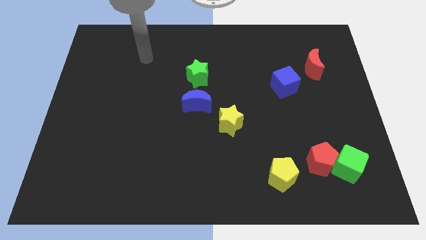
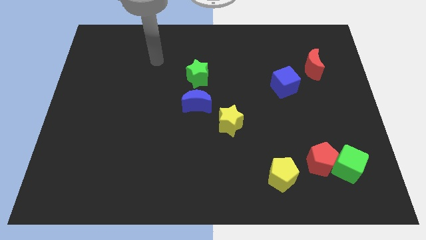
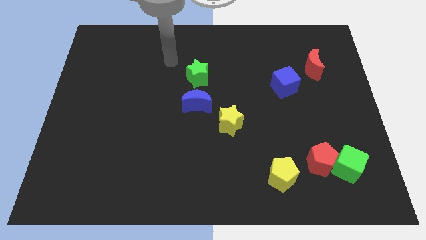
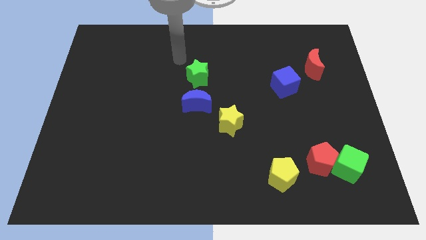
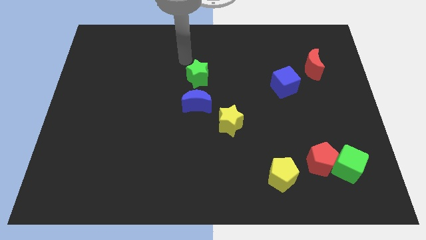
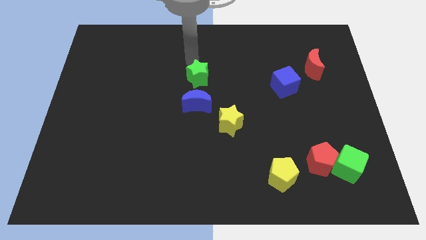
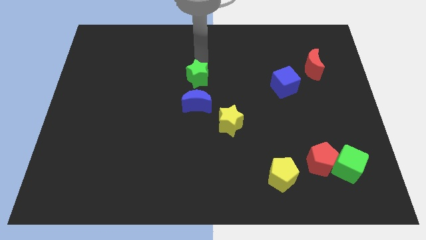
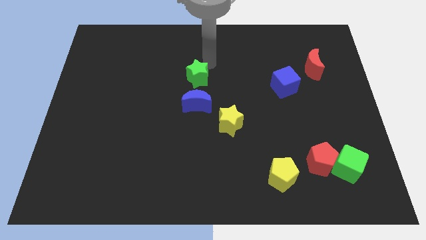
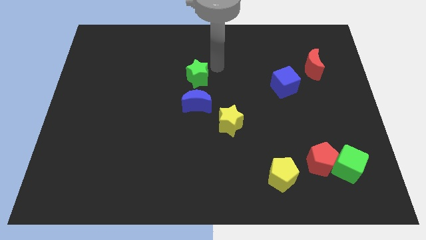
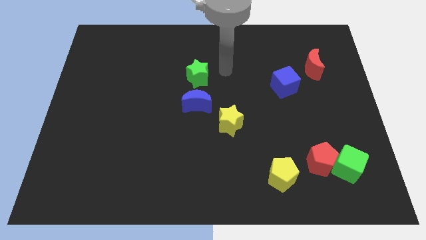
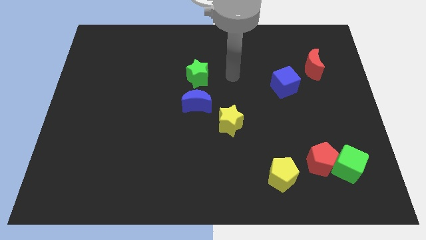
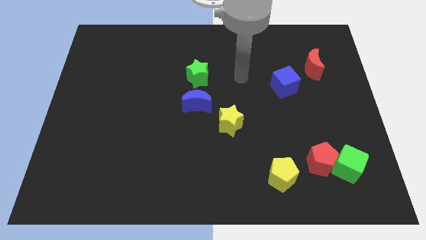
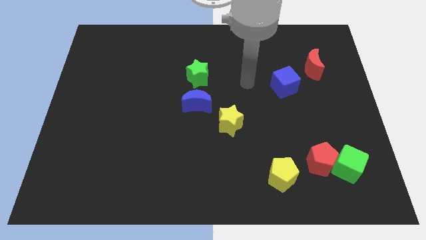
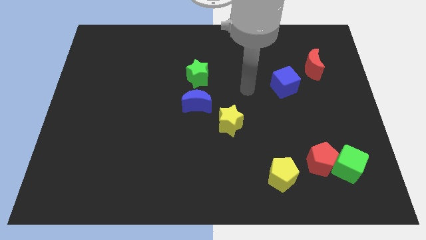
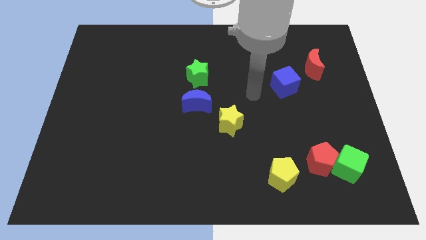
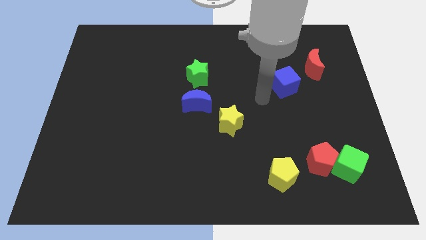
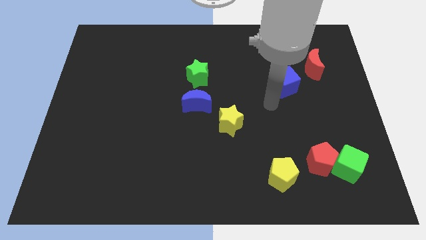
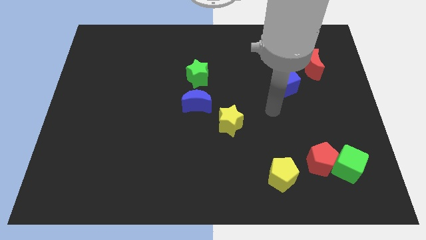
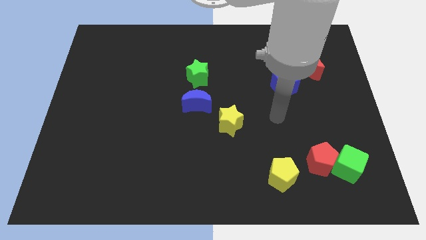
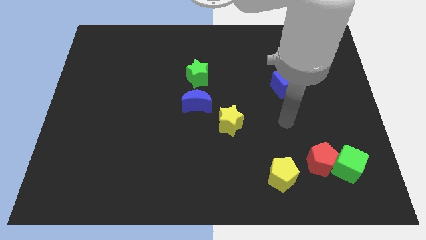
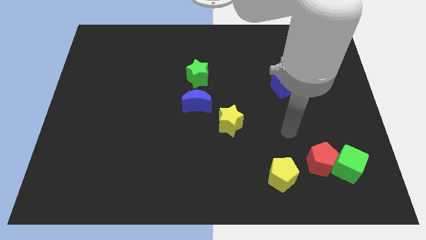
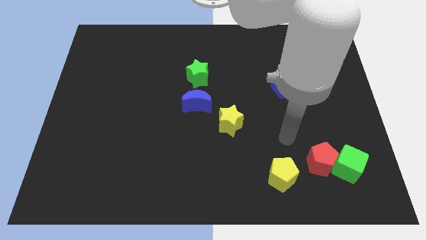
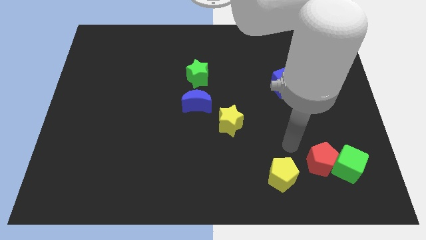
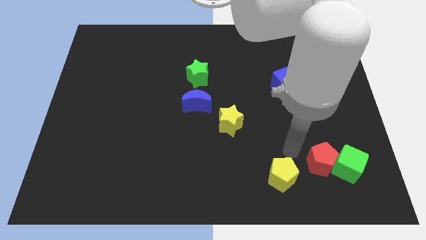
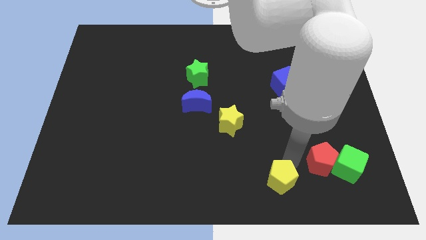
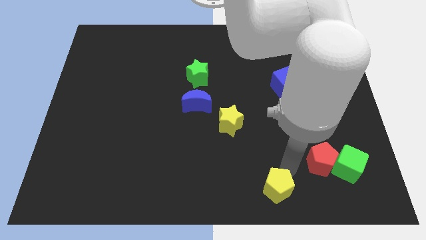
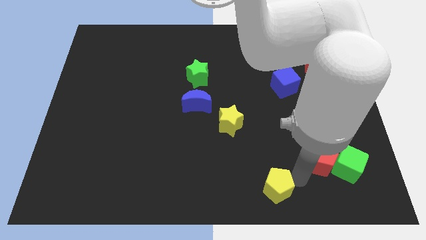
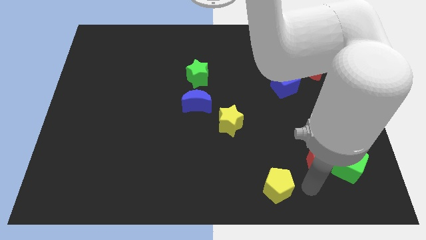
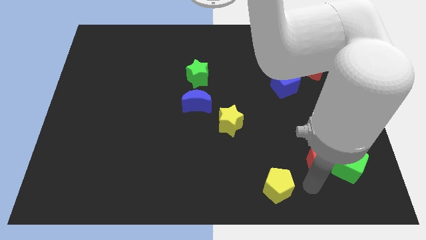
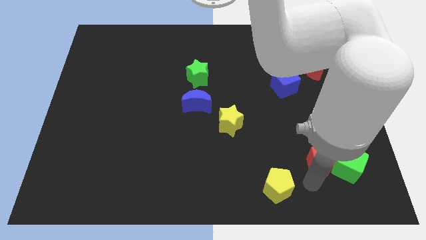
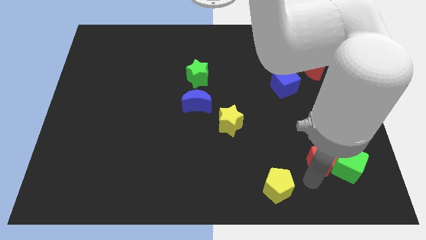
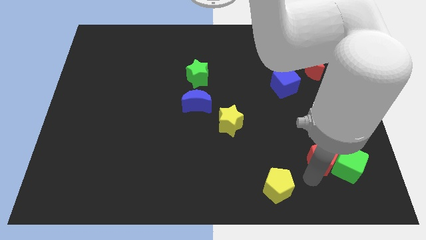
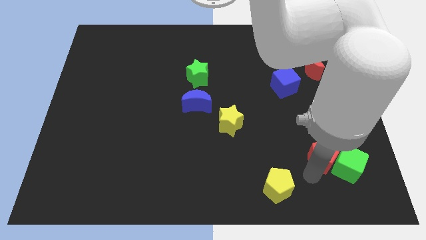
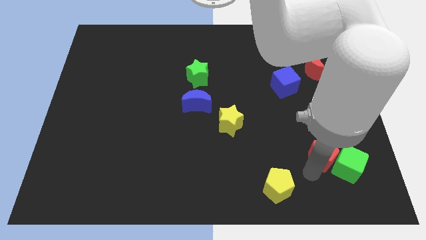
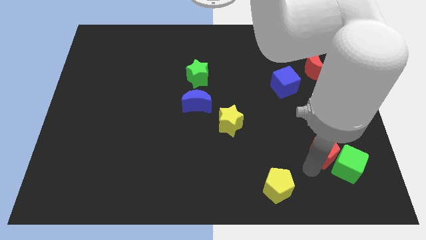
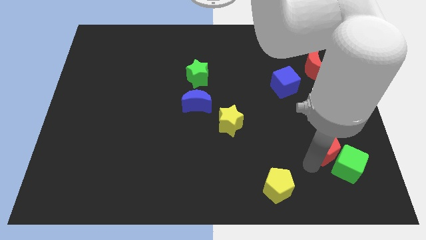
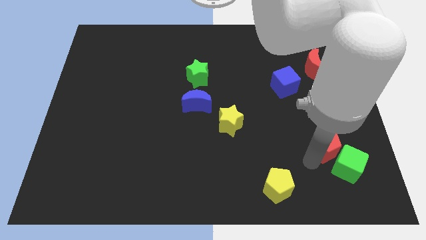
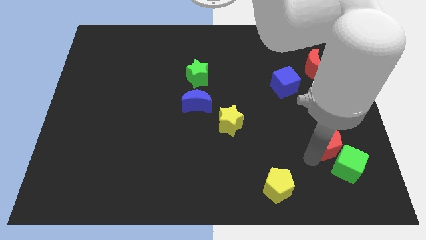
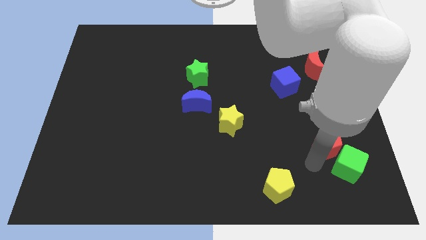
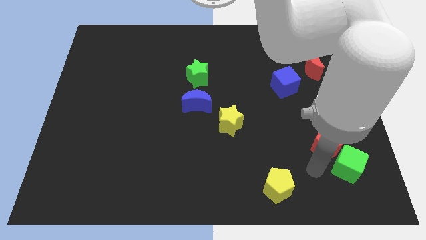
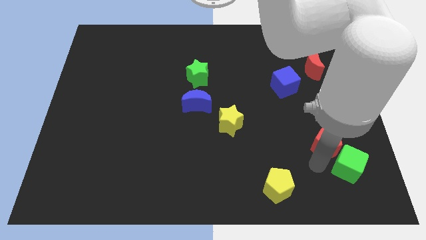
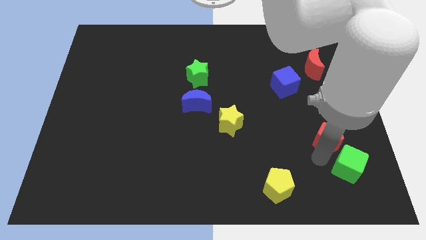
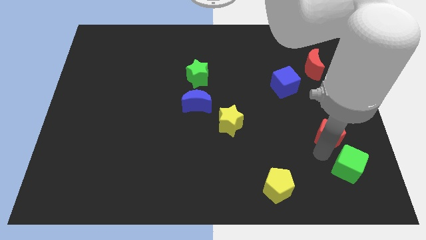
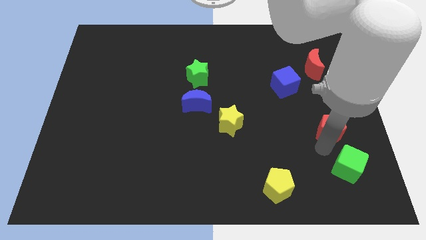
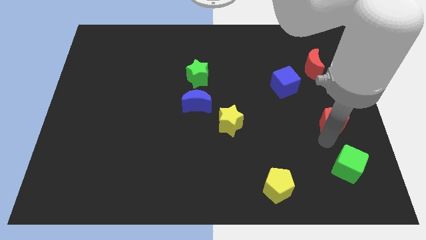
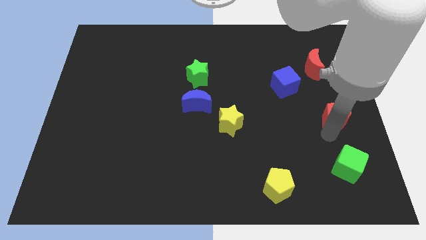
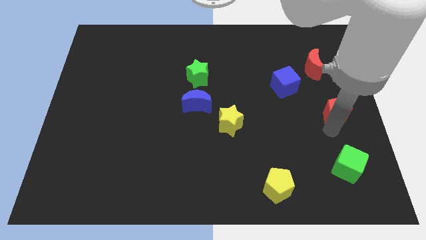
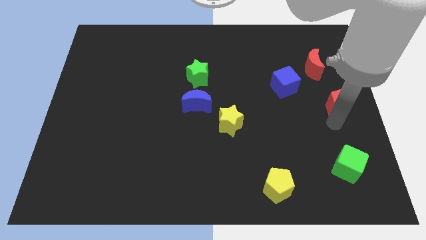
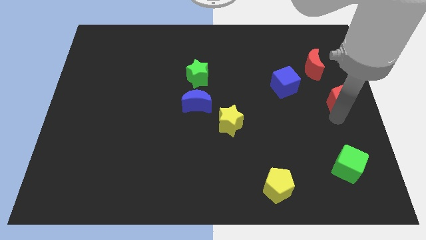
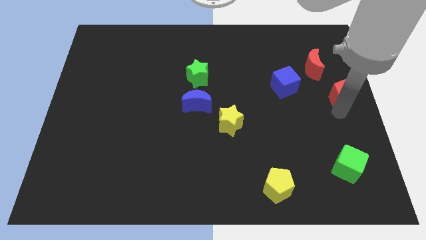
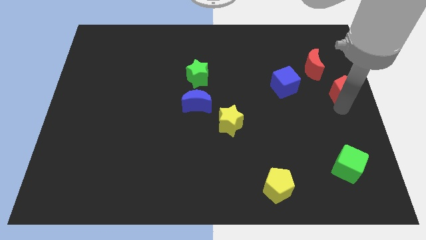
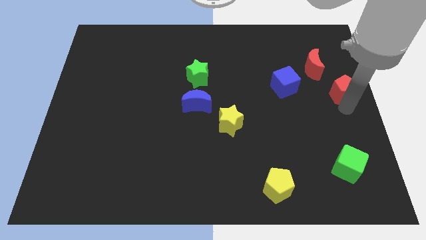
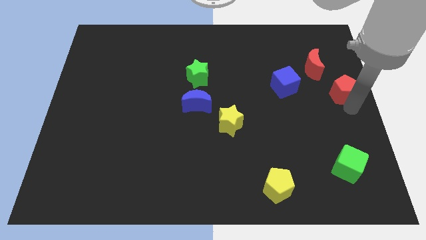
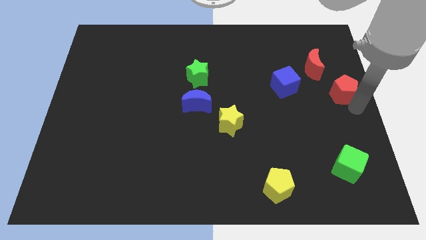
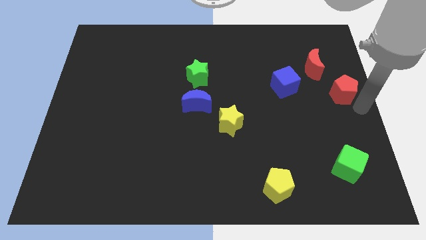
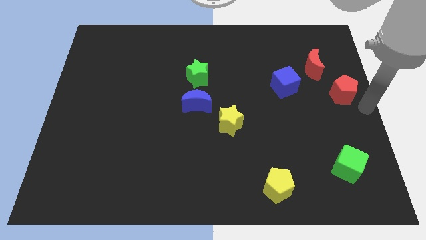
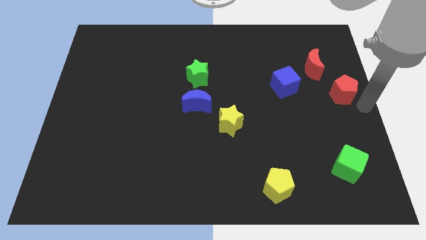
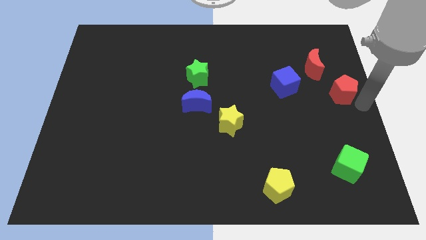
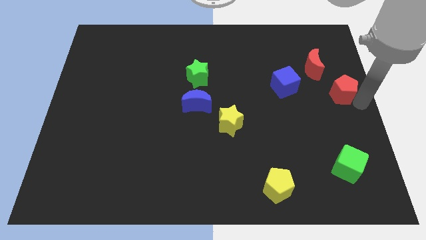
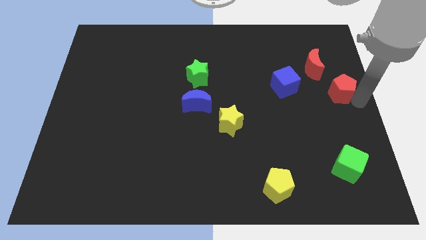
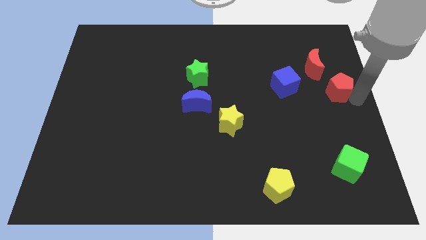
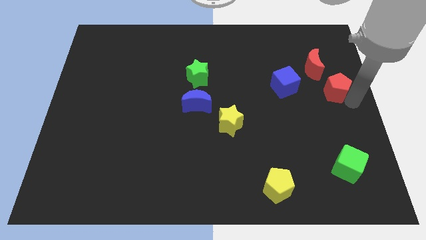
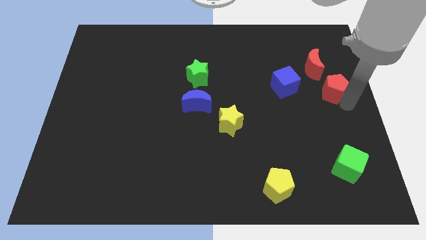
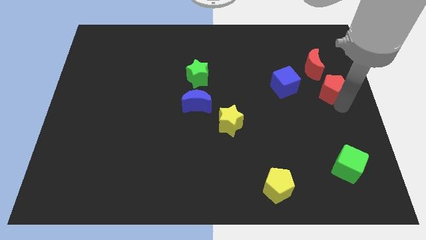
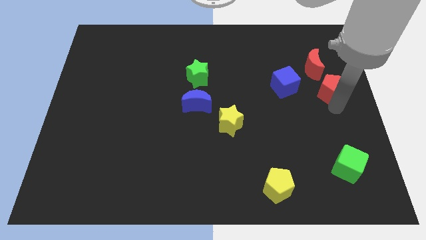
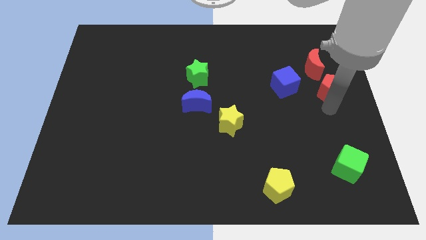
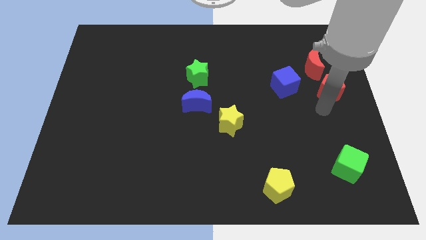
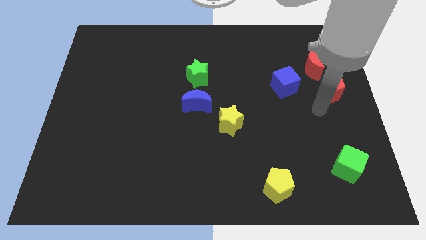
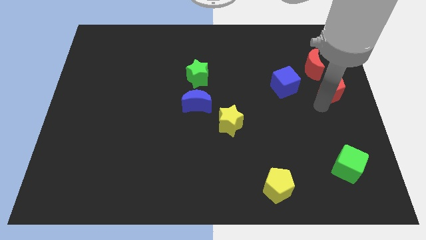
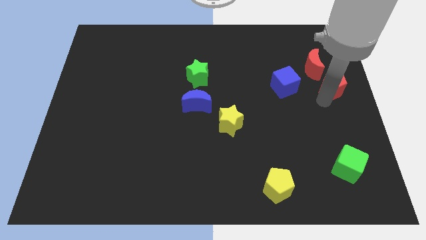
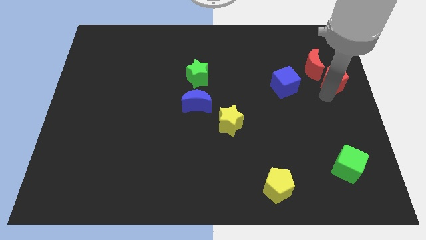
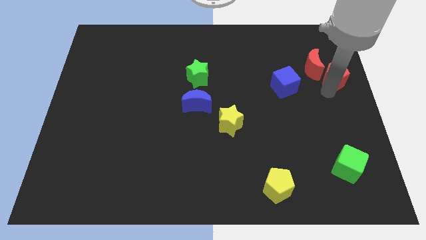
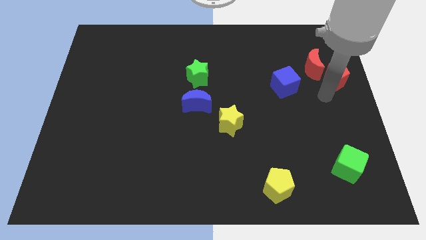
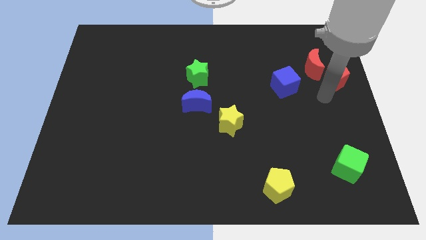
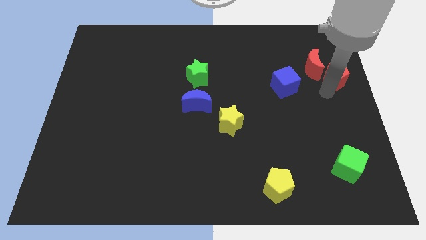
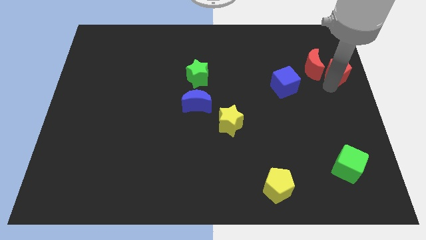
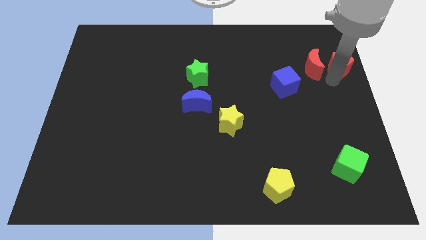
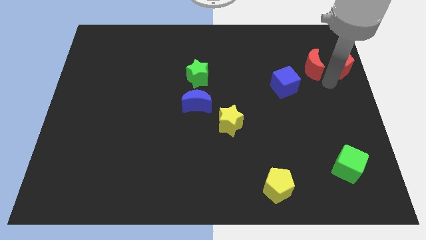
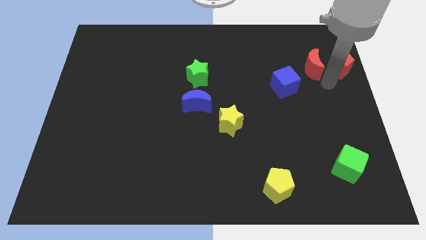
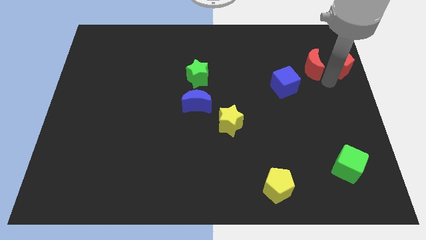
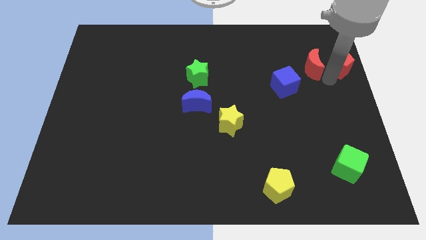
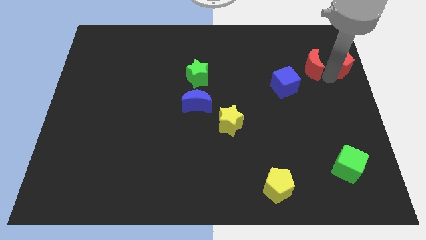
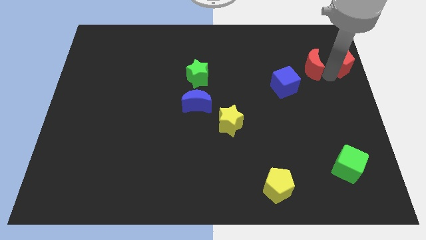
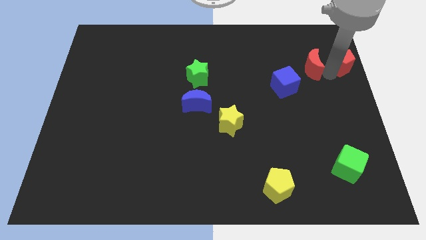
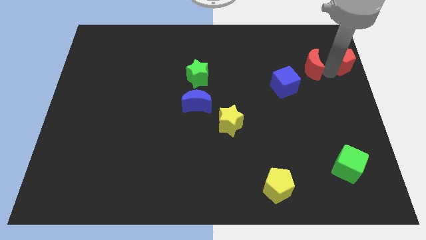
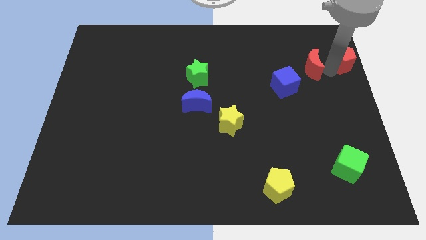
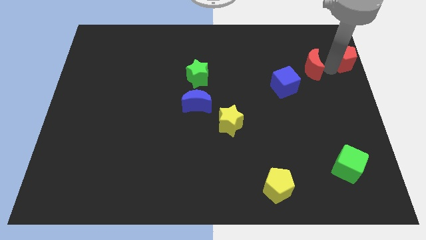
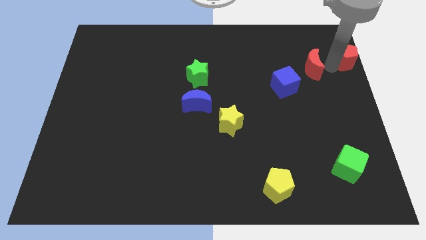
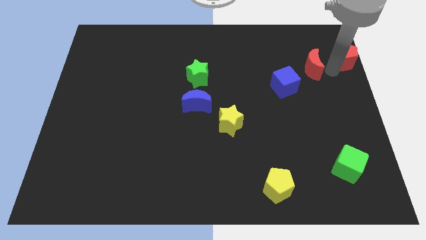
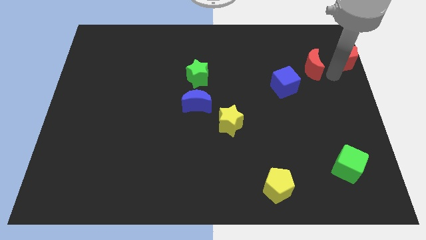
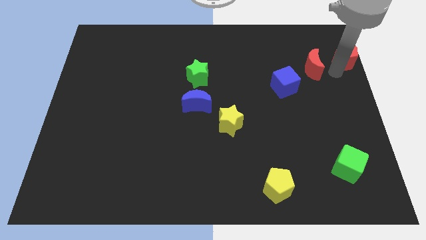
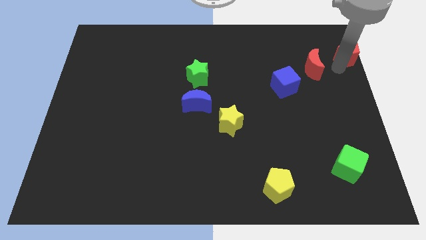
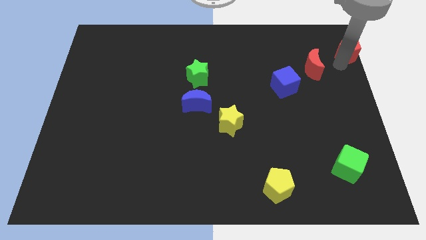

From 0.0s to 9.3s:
put the red pentagon to the top right
